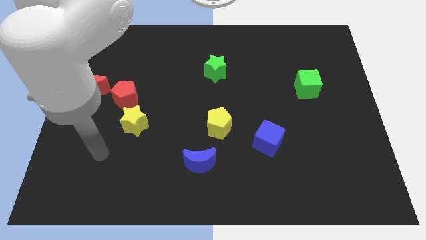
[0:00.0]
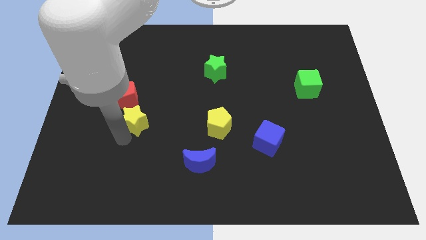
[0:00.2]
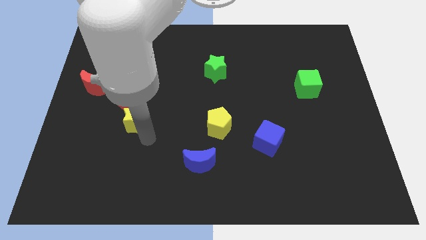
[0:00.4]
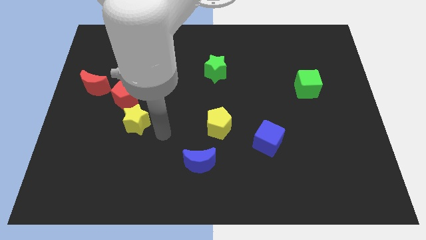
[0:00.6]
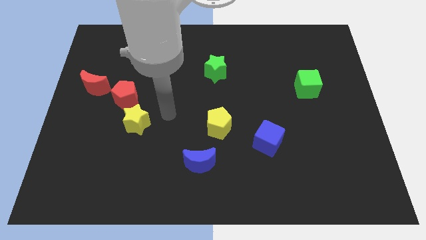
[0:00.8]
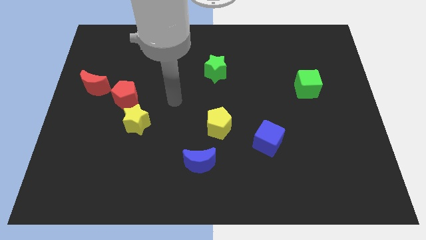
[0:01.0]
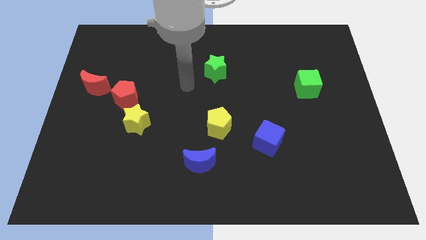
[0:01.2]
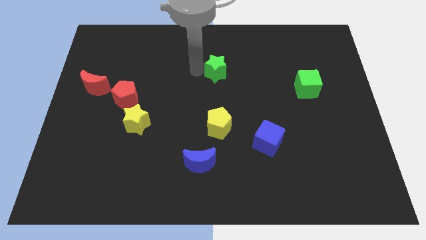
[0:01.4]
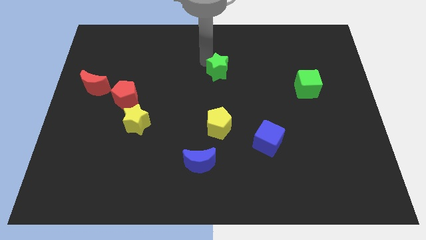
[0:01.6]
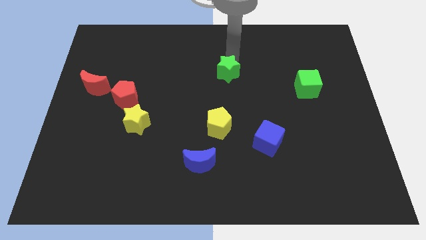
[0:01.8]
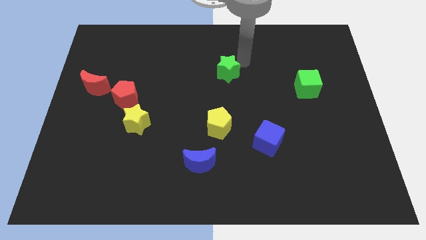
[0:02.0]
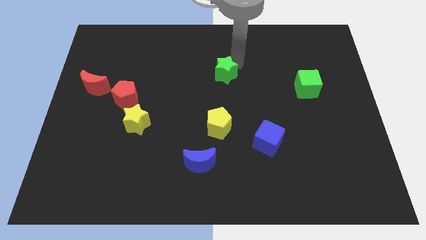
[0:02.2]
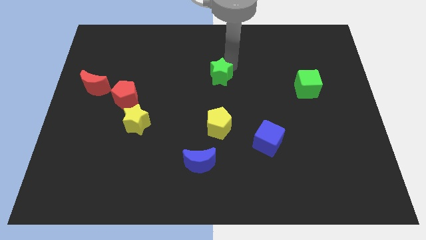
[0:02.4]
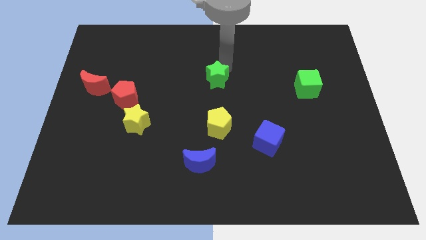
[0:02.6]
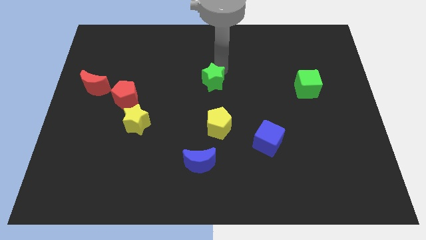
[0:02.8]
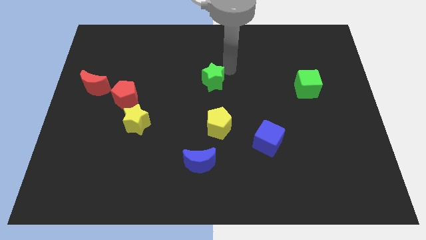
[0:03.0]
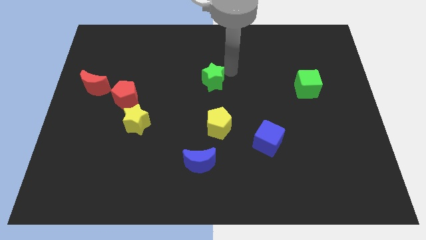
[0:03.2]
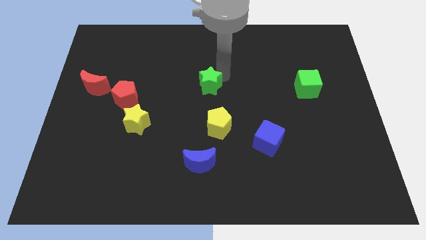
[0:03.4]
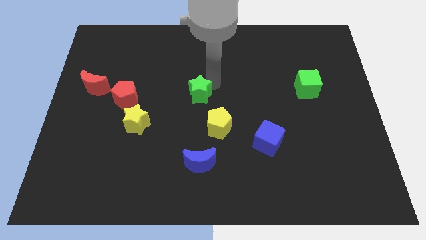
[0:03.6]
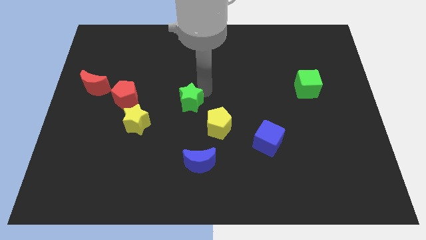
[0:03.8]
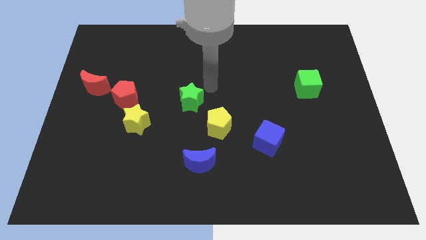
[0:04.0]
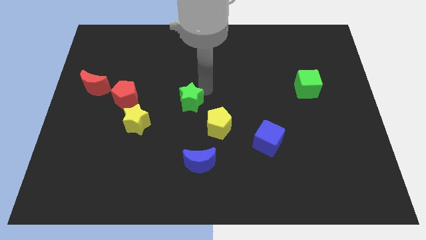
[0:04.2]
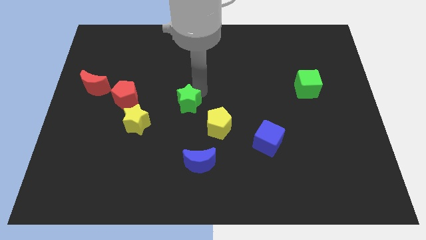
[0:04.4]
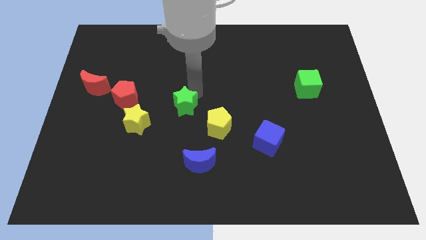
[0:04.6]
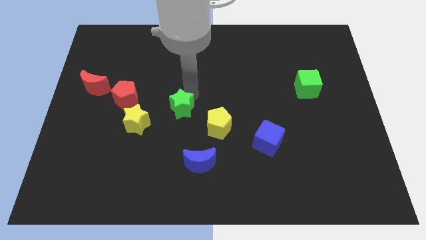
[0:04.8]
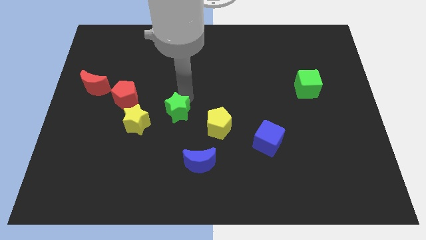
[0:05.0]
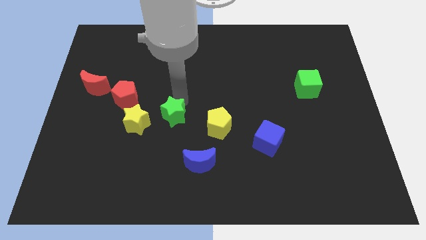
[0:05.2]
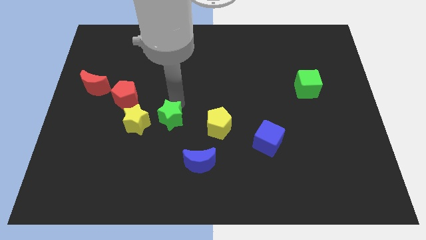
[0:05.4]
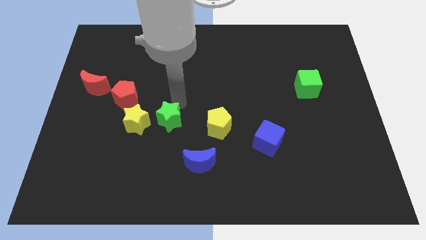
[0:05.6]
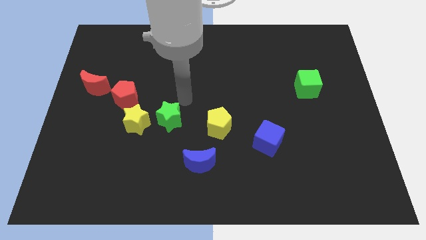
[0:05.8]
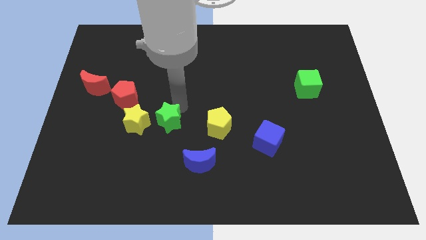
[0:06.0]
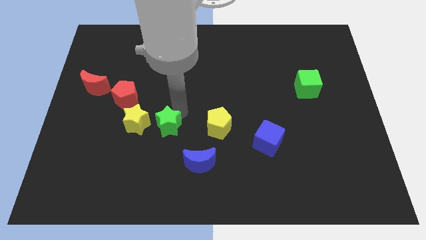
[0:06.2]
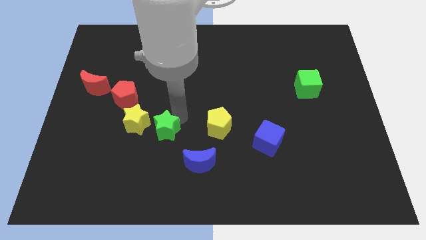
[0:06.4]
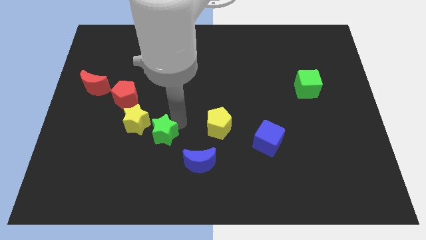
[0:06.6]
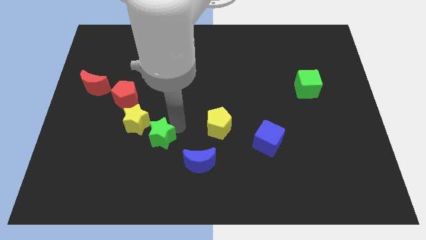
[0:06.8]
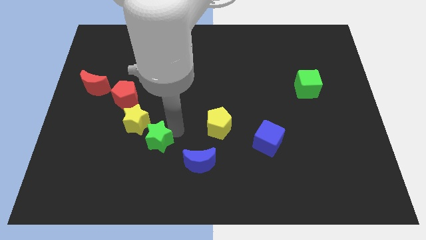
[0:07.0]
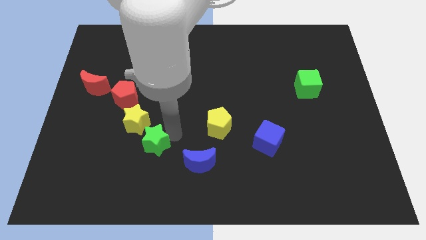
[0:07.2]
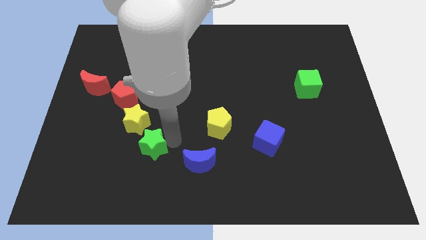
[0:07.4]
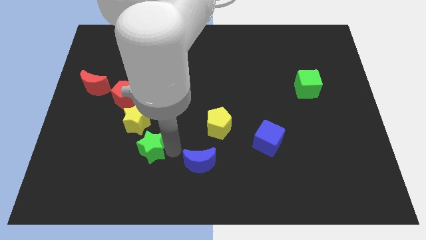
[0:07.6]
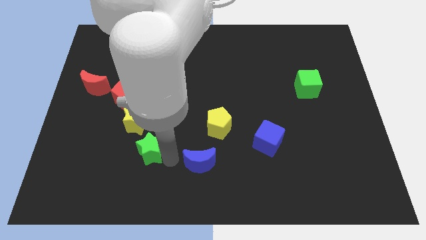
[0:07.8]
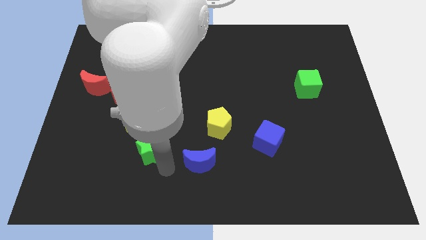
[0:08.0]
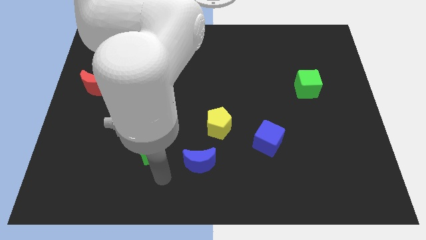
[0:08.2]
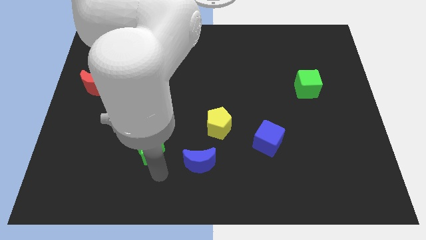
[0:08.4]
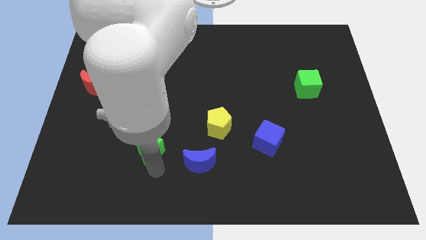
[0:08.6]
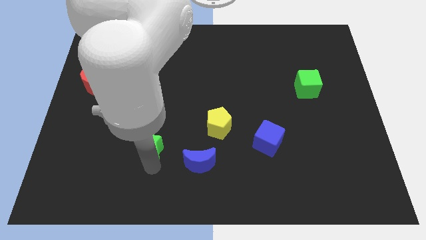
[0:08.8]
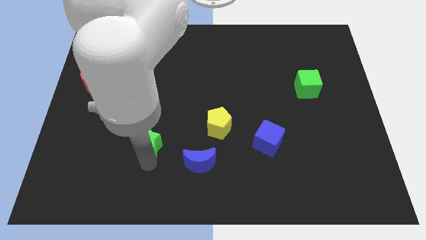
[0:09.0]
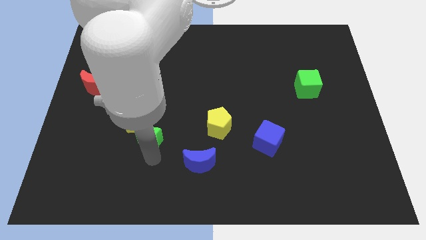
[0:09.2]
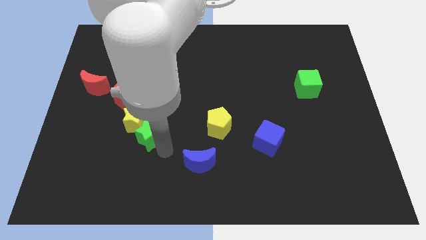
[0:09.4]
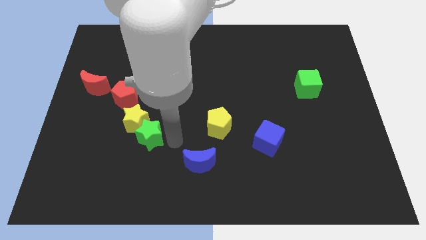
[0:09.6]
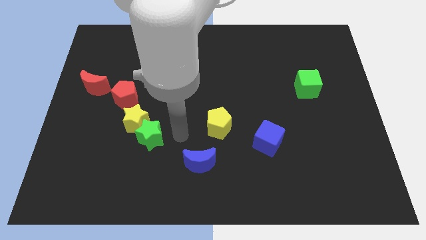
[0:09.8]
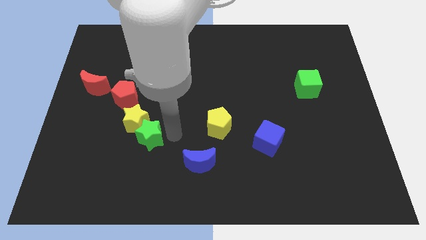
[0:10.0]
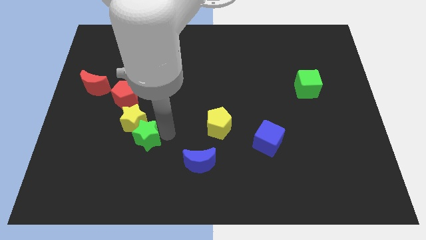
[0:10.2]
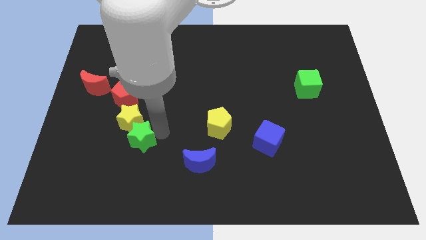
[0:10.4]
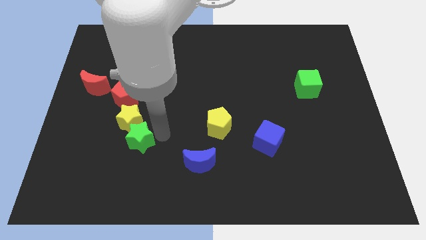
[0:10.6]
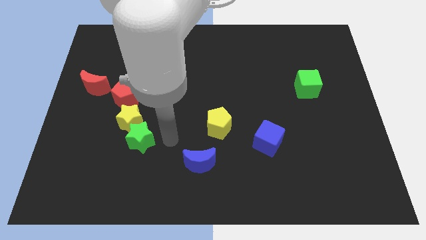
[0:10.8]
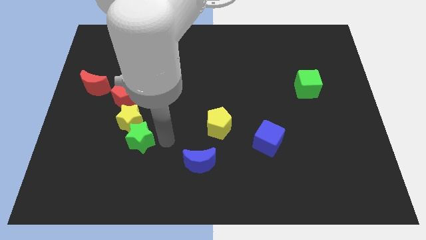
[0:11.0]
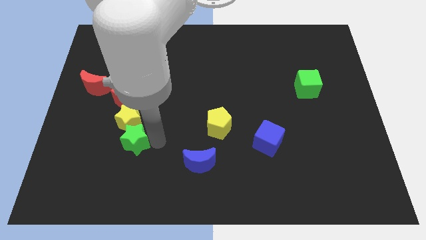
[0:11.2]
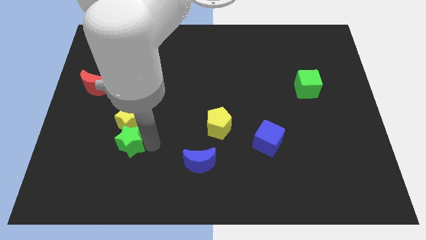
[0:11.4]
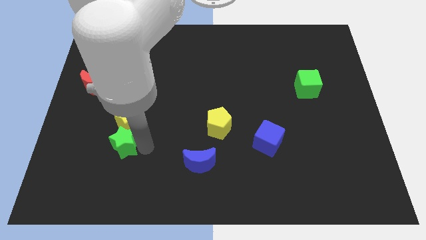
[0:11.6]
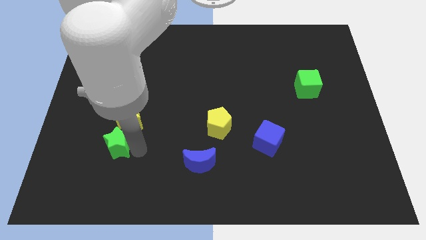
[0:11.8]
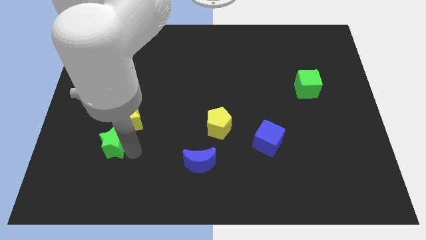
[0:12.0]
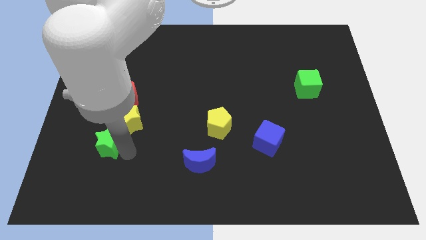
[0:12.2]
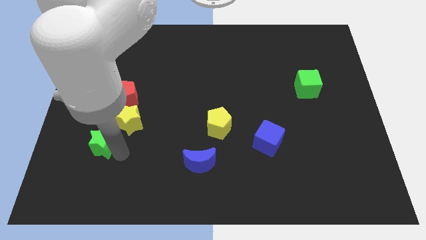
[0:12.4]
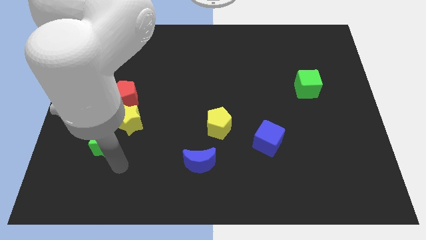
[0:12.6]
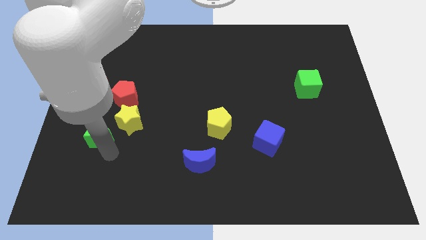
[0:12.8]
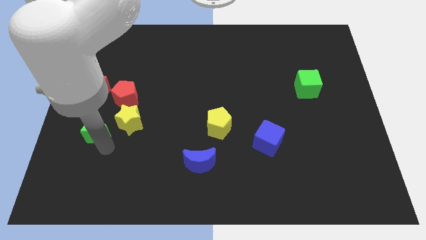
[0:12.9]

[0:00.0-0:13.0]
move the green star below the red moon
